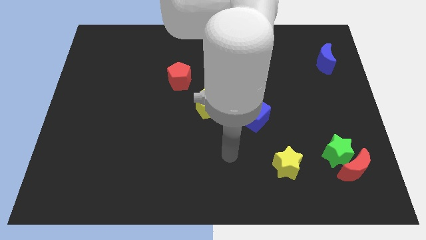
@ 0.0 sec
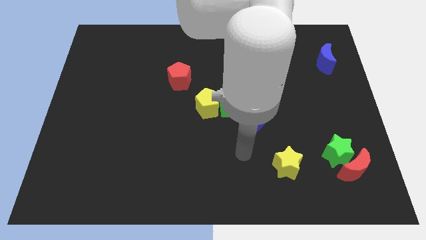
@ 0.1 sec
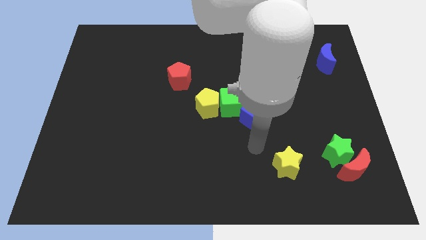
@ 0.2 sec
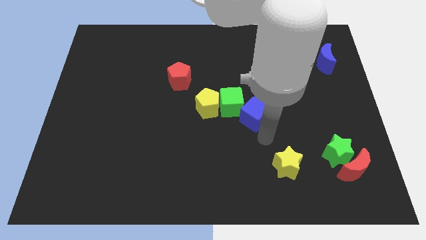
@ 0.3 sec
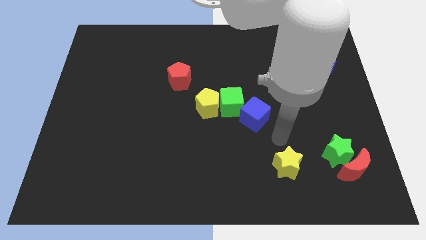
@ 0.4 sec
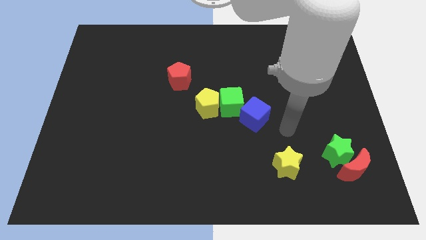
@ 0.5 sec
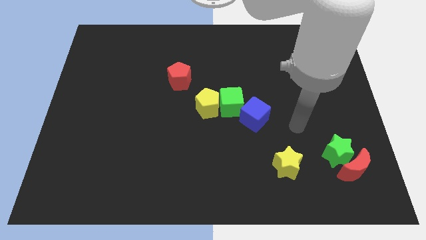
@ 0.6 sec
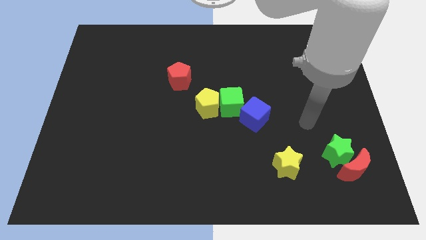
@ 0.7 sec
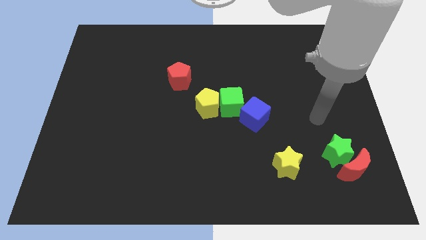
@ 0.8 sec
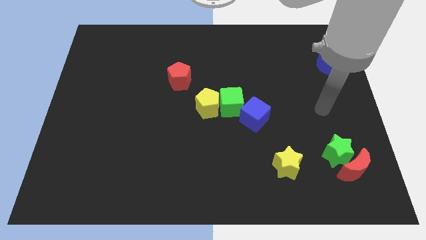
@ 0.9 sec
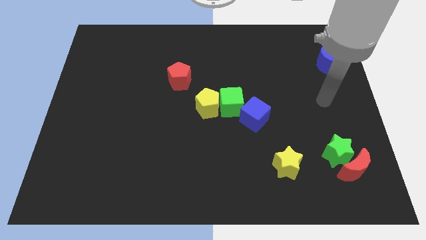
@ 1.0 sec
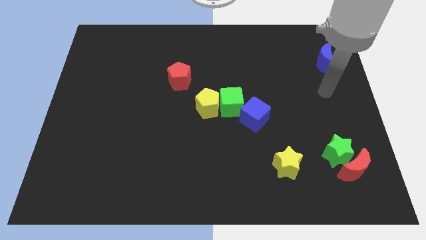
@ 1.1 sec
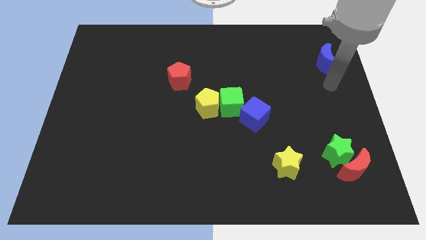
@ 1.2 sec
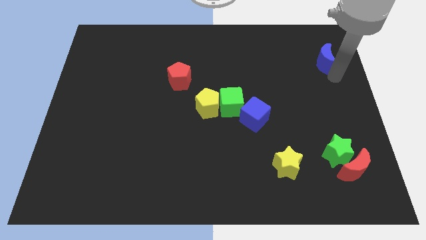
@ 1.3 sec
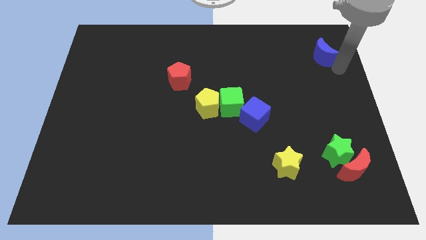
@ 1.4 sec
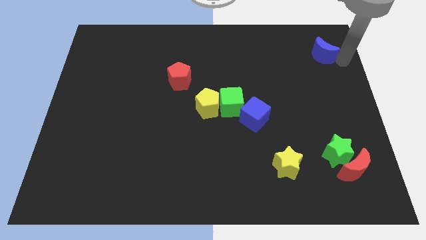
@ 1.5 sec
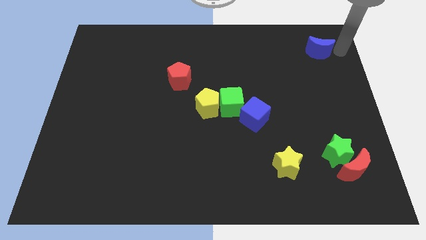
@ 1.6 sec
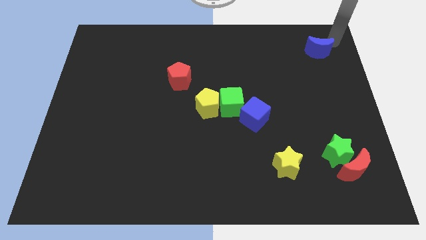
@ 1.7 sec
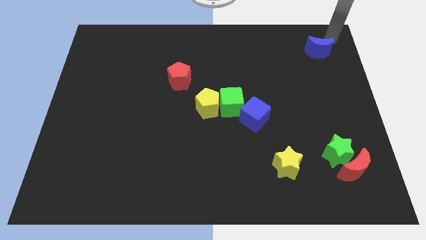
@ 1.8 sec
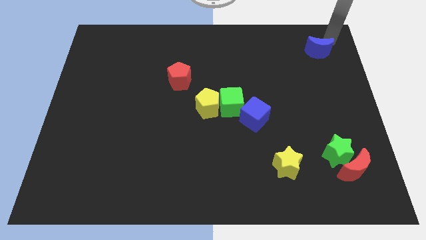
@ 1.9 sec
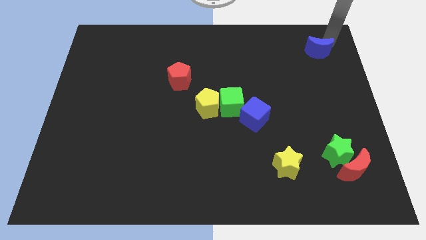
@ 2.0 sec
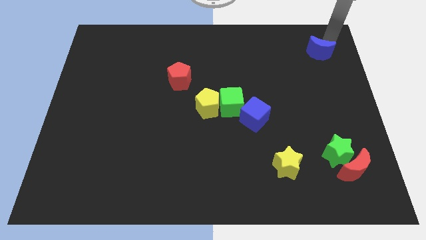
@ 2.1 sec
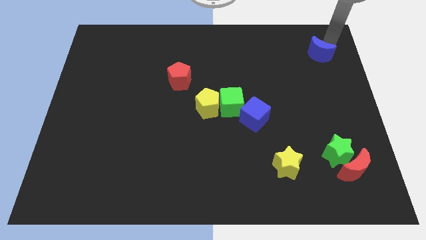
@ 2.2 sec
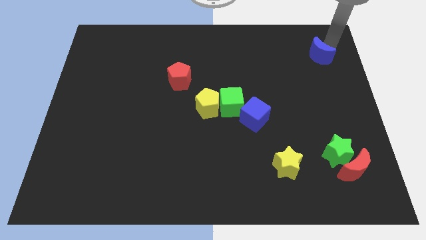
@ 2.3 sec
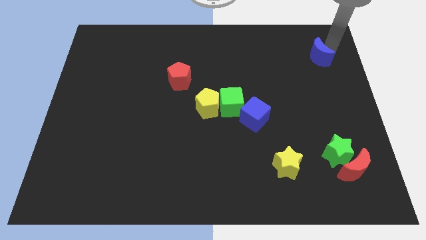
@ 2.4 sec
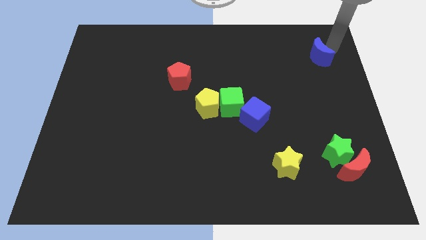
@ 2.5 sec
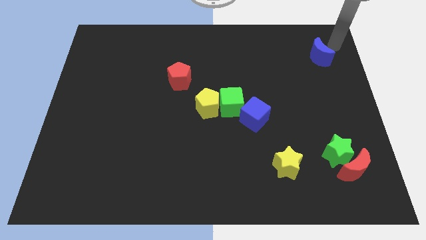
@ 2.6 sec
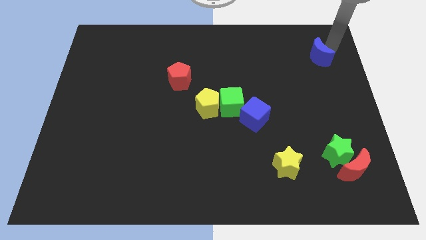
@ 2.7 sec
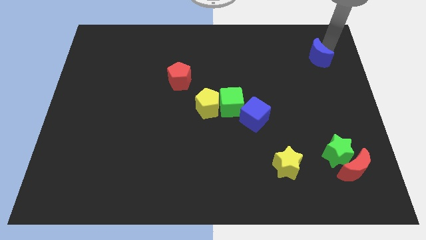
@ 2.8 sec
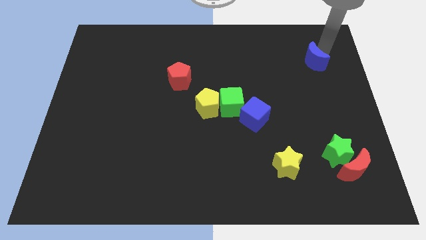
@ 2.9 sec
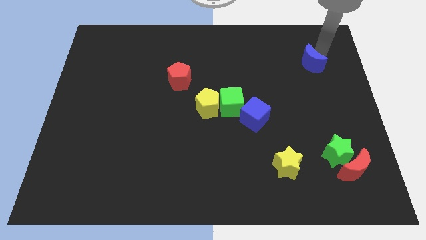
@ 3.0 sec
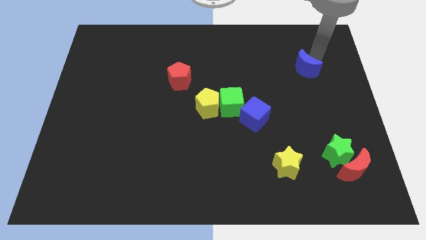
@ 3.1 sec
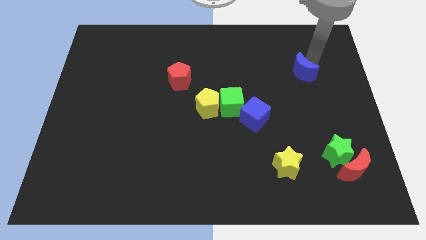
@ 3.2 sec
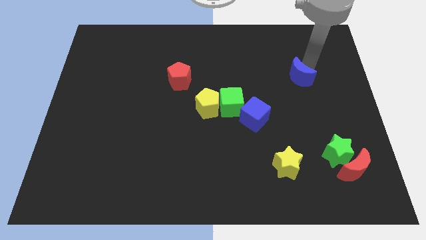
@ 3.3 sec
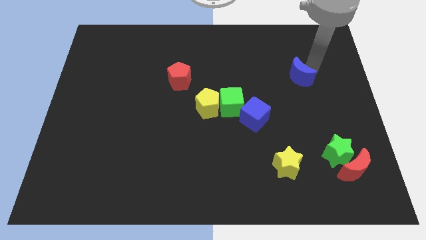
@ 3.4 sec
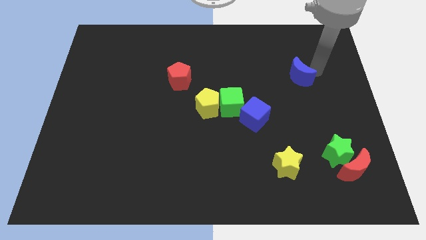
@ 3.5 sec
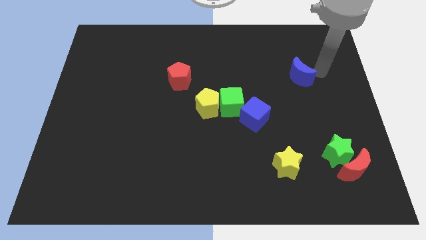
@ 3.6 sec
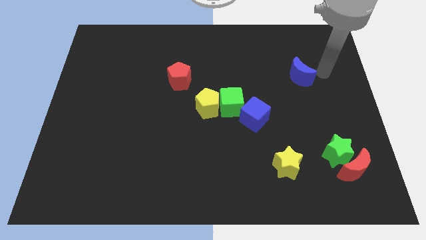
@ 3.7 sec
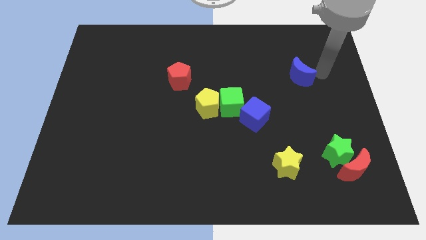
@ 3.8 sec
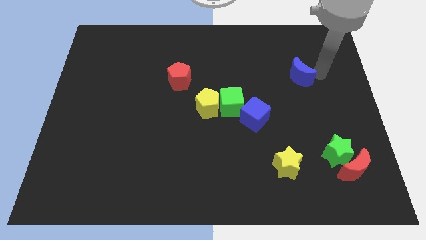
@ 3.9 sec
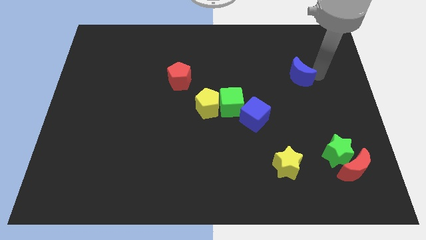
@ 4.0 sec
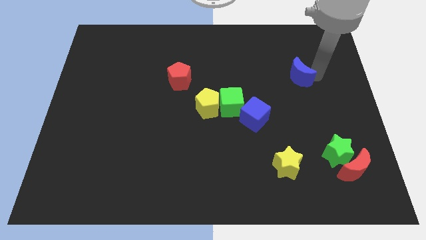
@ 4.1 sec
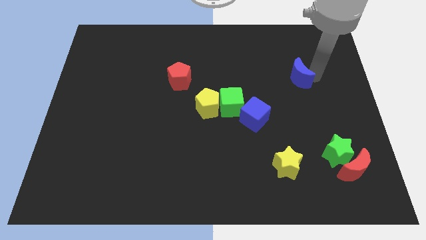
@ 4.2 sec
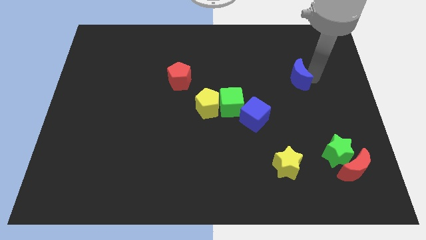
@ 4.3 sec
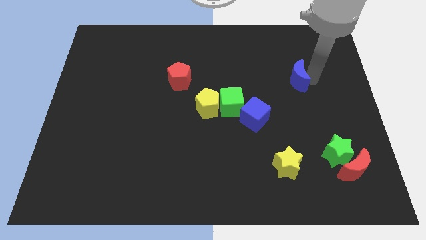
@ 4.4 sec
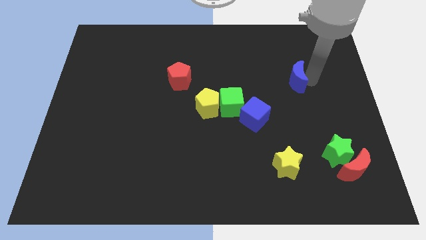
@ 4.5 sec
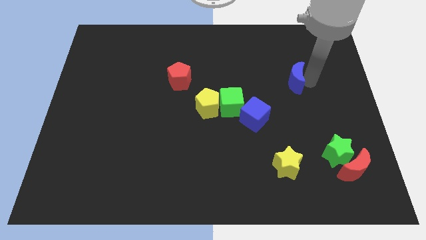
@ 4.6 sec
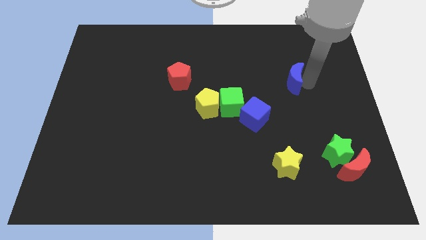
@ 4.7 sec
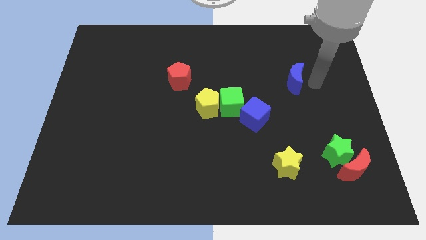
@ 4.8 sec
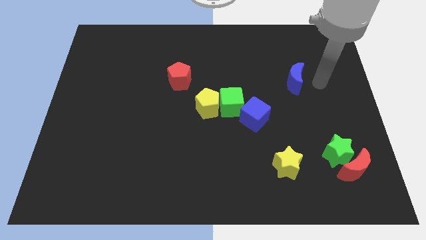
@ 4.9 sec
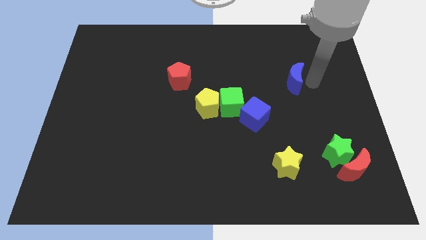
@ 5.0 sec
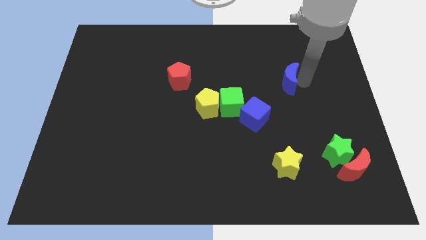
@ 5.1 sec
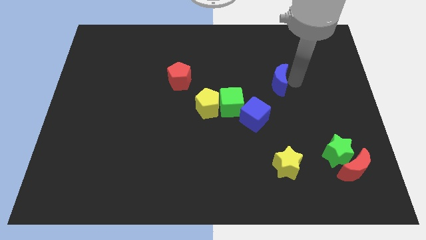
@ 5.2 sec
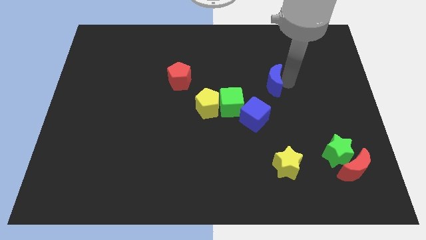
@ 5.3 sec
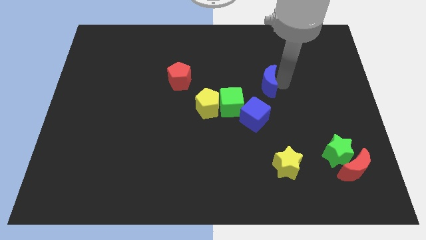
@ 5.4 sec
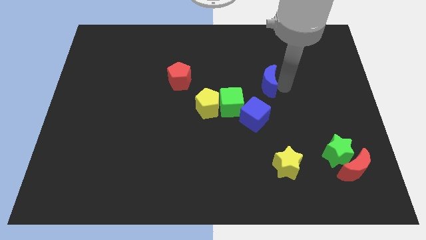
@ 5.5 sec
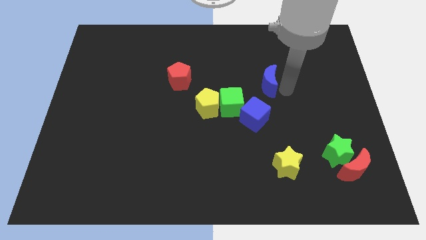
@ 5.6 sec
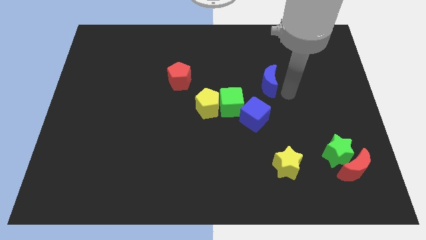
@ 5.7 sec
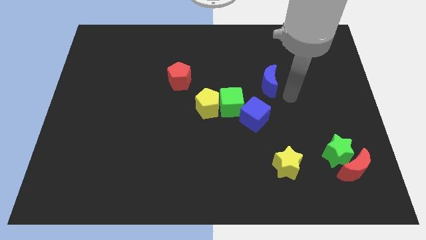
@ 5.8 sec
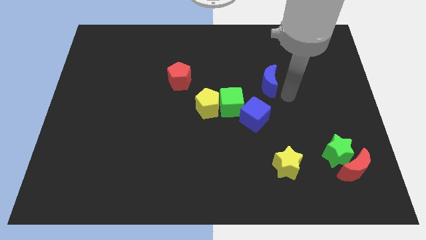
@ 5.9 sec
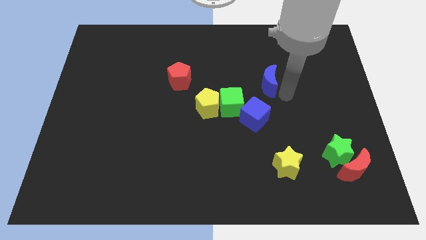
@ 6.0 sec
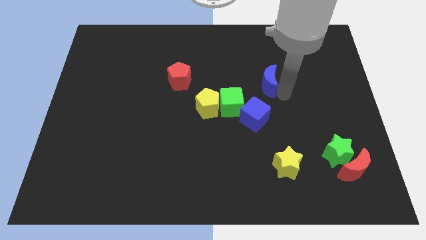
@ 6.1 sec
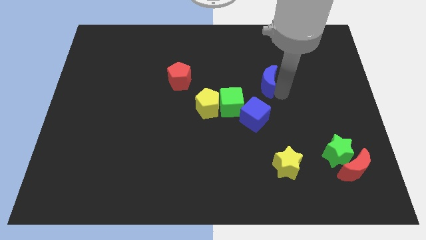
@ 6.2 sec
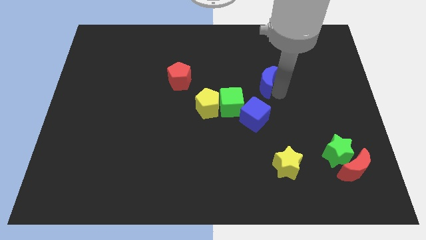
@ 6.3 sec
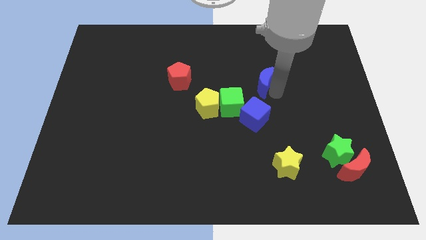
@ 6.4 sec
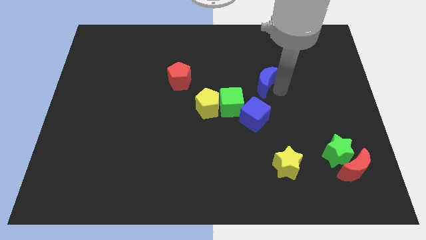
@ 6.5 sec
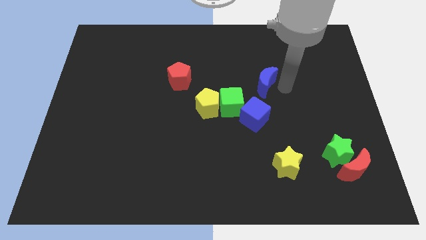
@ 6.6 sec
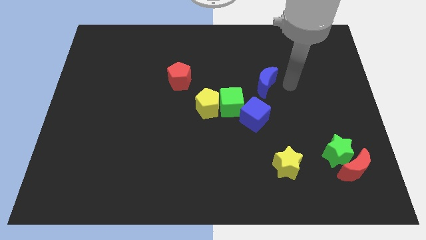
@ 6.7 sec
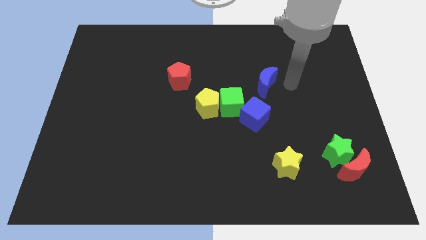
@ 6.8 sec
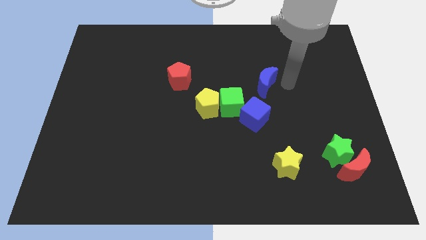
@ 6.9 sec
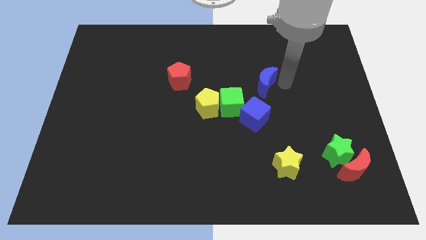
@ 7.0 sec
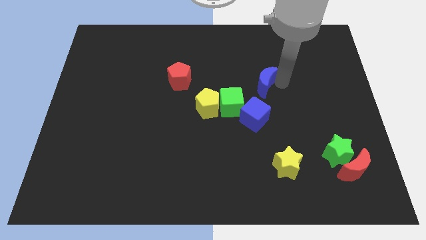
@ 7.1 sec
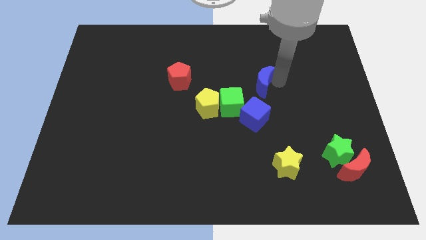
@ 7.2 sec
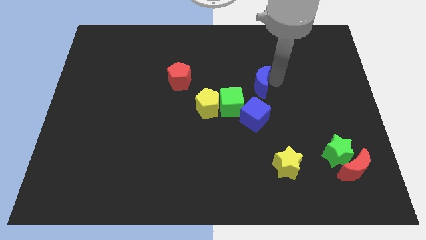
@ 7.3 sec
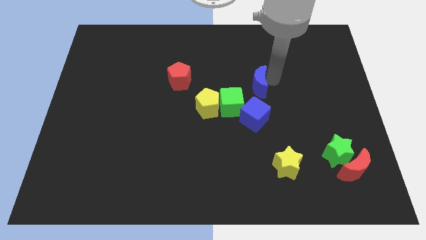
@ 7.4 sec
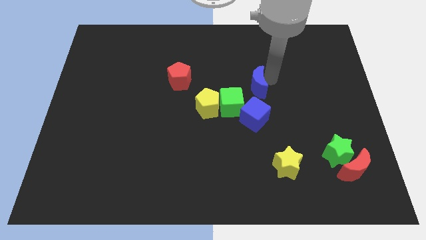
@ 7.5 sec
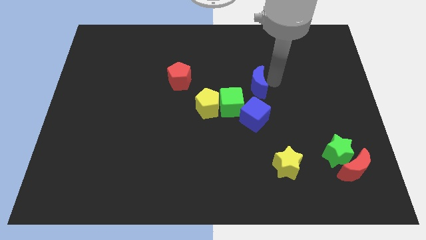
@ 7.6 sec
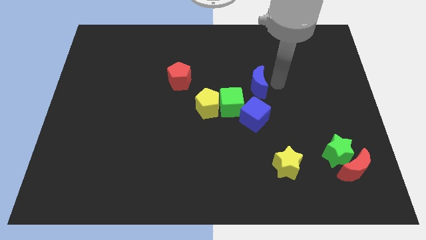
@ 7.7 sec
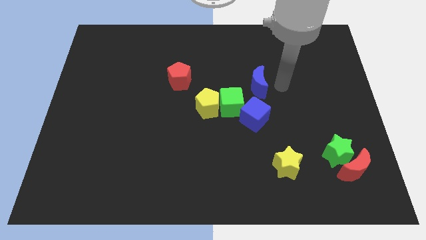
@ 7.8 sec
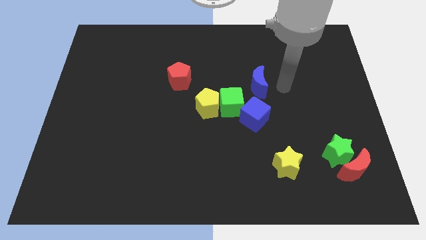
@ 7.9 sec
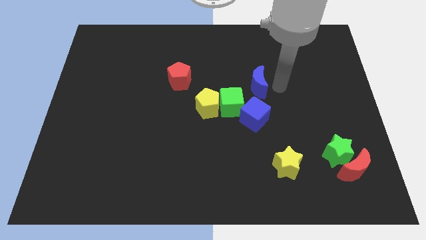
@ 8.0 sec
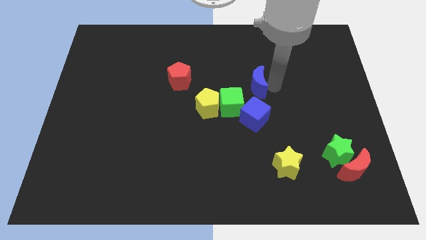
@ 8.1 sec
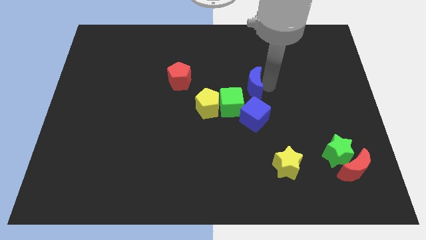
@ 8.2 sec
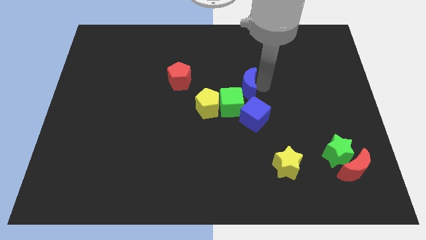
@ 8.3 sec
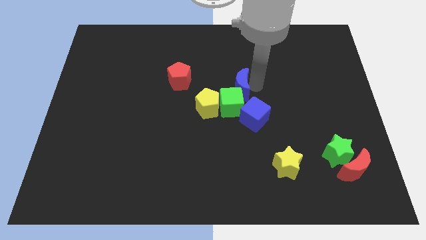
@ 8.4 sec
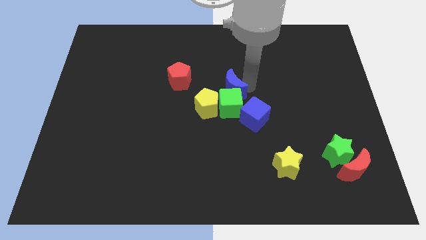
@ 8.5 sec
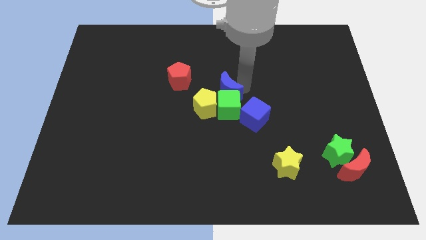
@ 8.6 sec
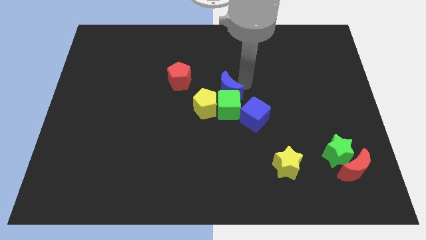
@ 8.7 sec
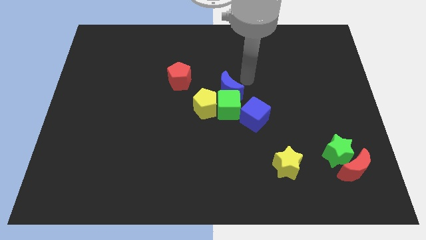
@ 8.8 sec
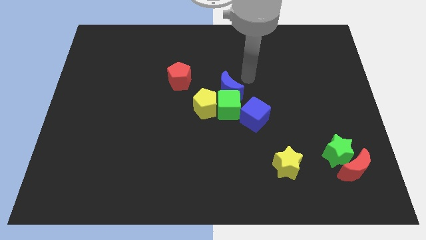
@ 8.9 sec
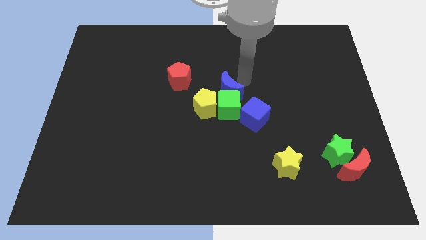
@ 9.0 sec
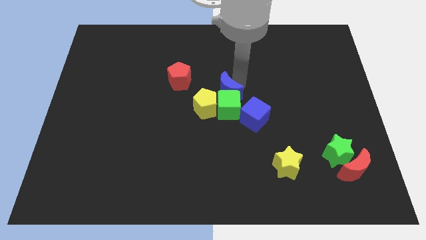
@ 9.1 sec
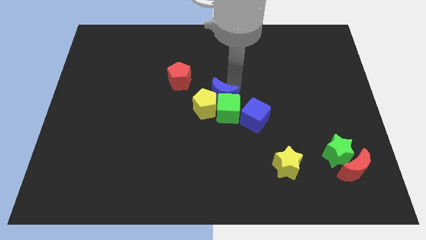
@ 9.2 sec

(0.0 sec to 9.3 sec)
put the blue moon next to the yellow pentagon
